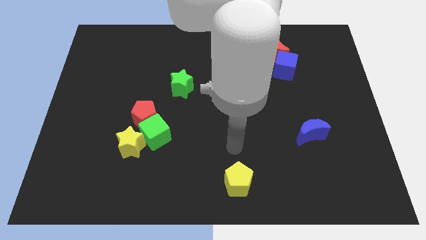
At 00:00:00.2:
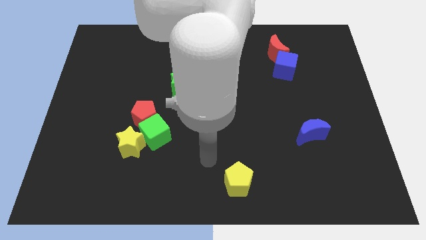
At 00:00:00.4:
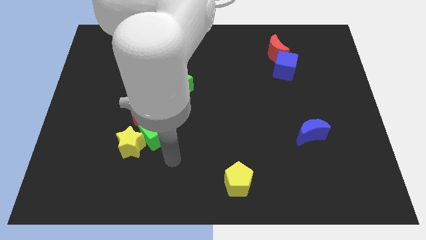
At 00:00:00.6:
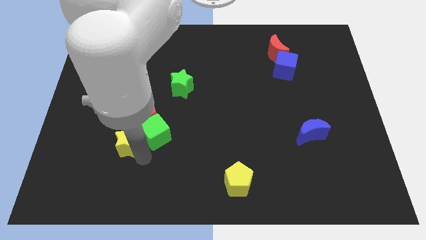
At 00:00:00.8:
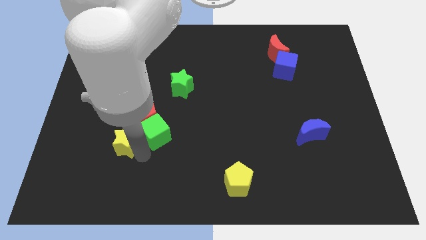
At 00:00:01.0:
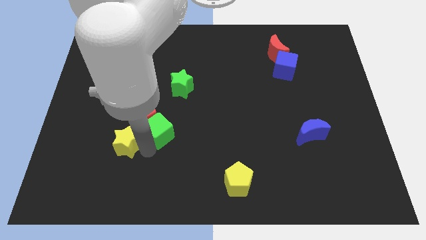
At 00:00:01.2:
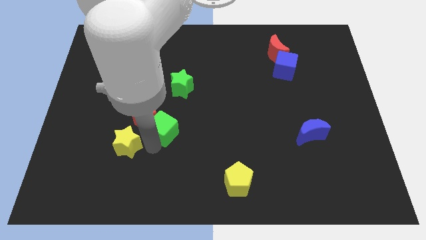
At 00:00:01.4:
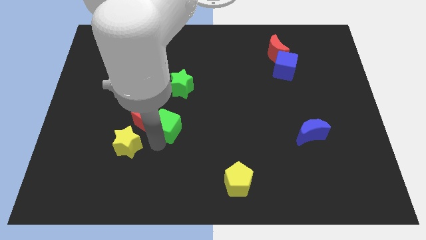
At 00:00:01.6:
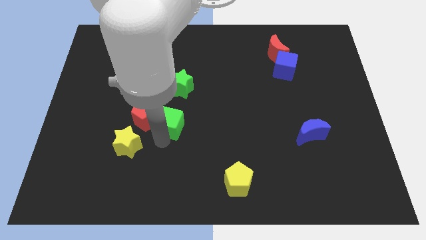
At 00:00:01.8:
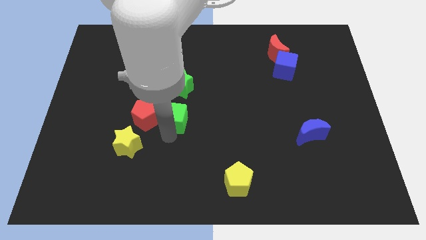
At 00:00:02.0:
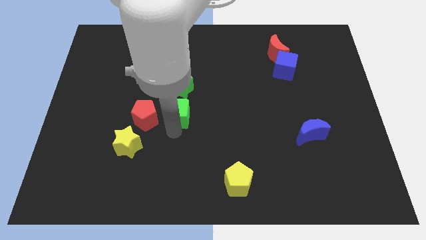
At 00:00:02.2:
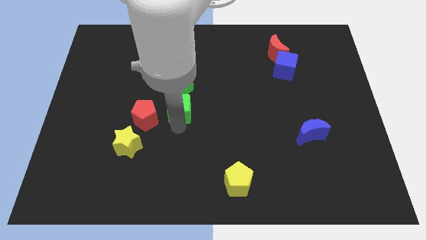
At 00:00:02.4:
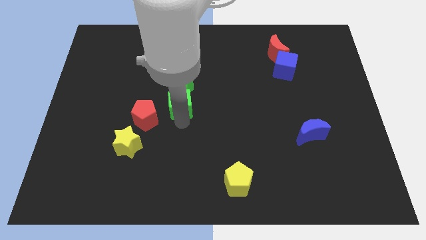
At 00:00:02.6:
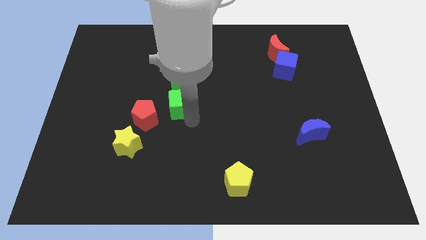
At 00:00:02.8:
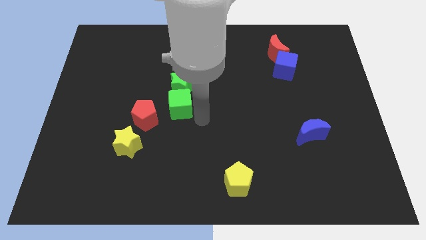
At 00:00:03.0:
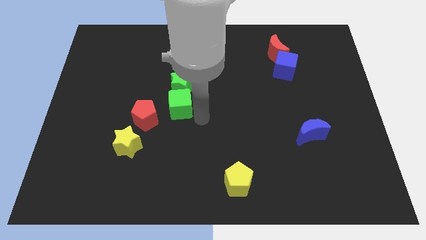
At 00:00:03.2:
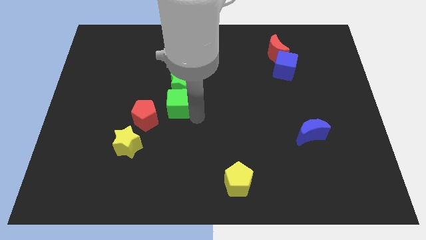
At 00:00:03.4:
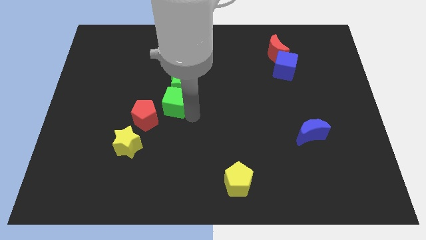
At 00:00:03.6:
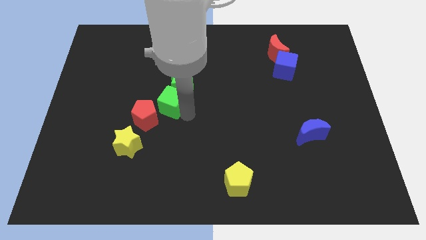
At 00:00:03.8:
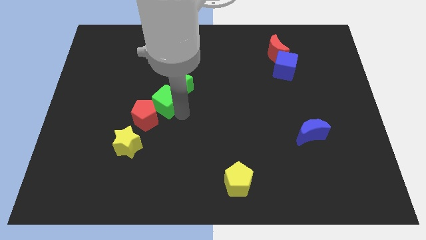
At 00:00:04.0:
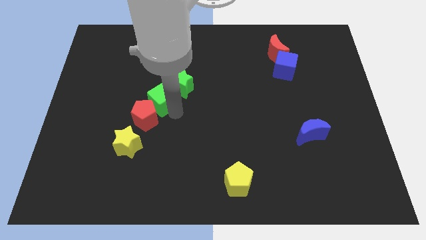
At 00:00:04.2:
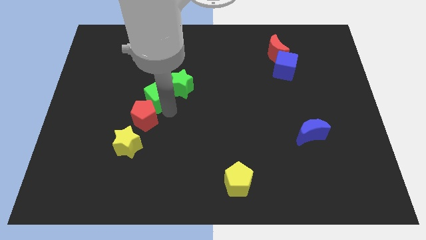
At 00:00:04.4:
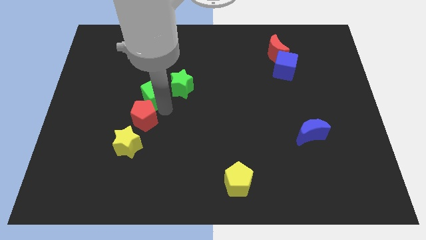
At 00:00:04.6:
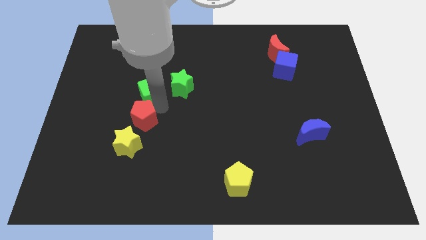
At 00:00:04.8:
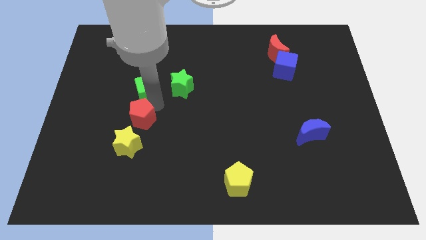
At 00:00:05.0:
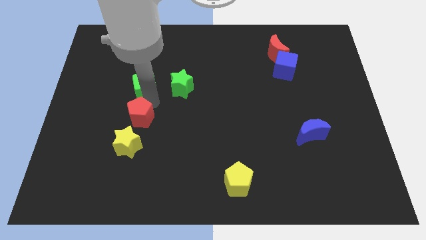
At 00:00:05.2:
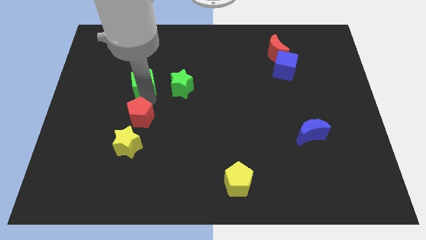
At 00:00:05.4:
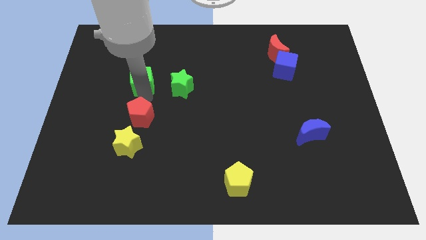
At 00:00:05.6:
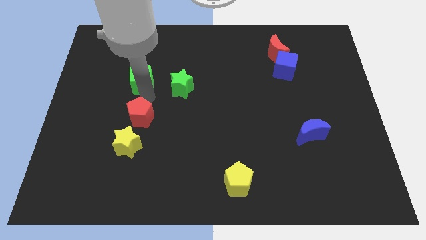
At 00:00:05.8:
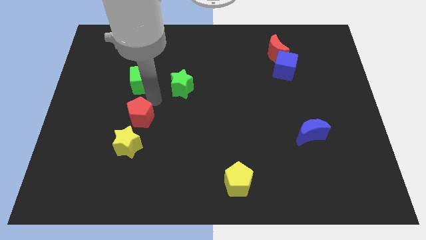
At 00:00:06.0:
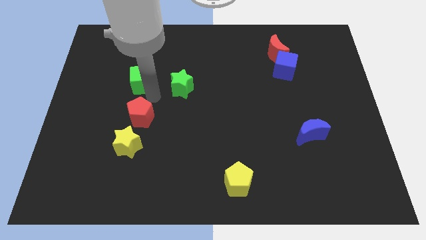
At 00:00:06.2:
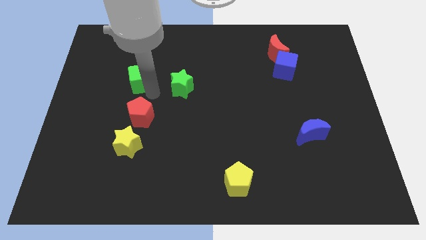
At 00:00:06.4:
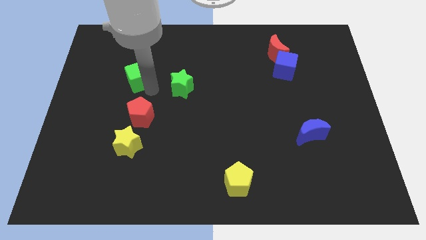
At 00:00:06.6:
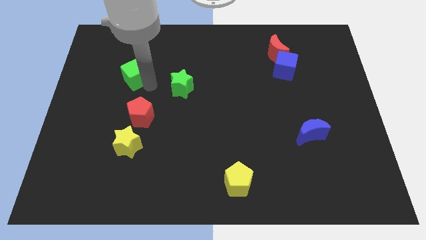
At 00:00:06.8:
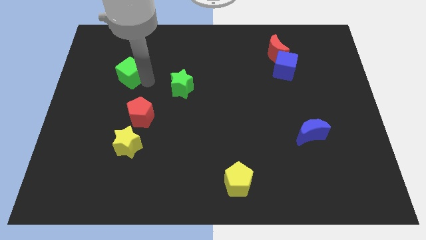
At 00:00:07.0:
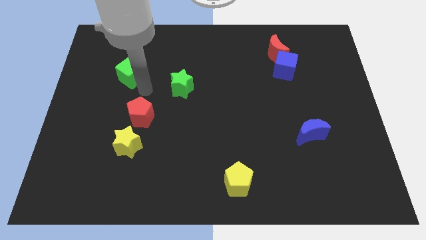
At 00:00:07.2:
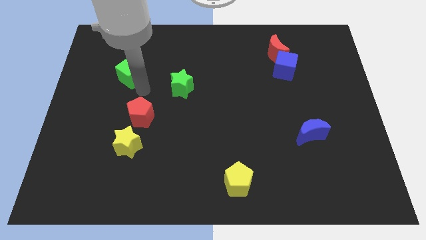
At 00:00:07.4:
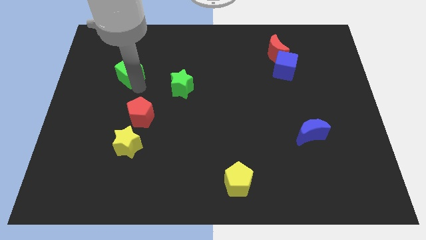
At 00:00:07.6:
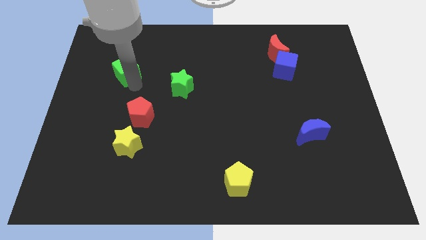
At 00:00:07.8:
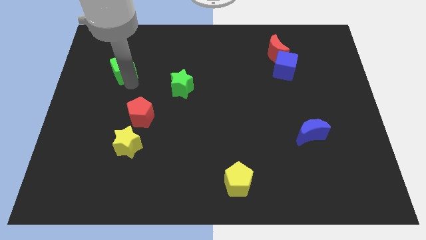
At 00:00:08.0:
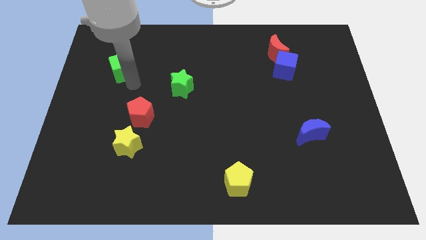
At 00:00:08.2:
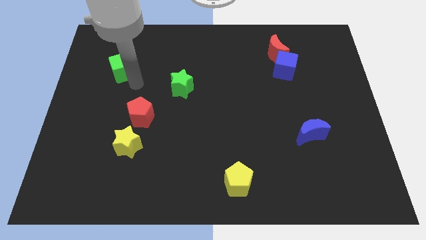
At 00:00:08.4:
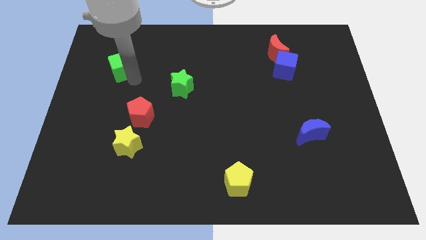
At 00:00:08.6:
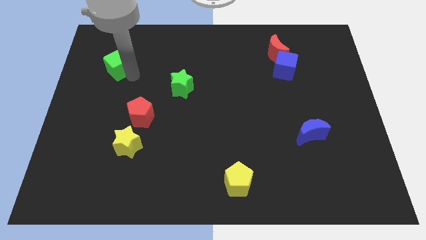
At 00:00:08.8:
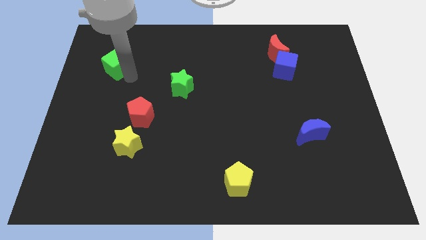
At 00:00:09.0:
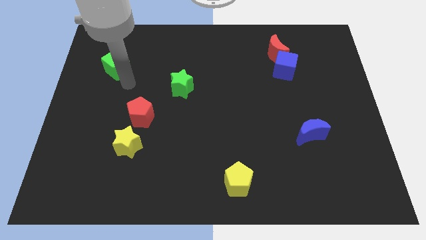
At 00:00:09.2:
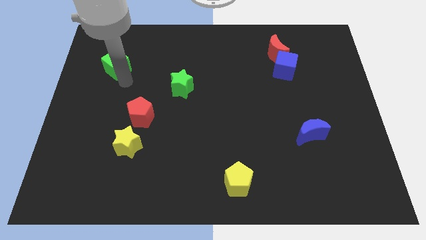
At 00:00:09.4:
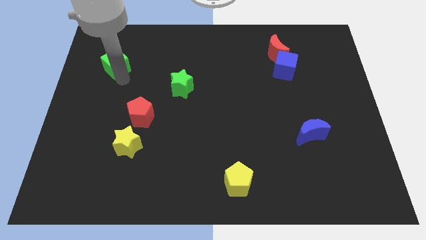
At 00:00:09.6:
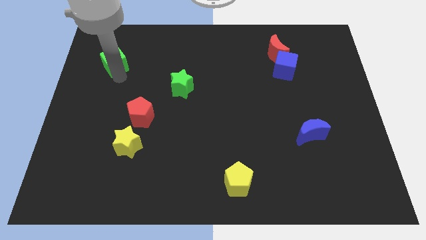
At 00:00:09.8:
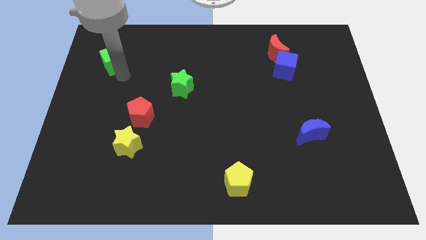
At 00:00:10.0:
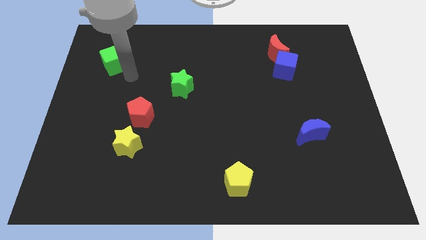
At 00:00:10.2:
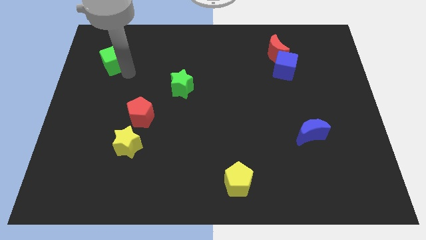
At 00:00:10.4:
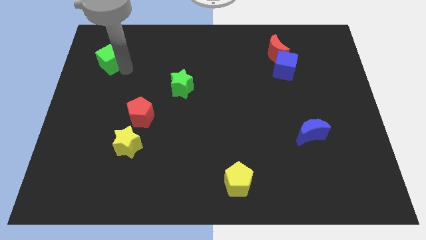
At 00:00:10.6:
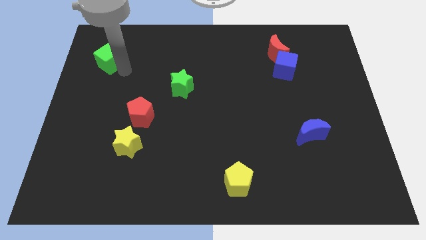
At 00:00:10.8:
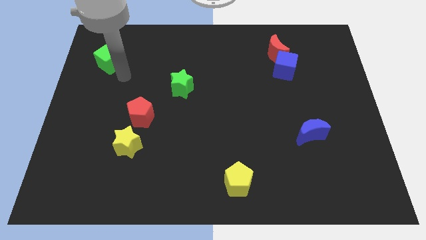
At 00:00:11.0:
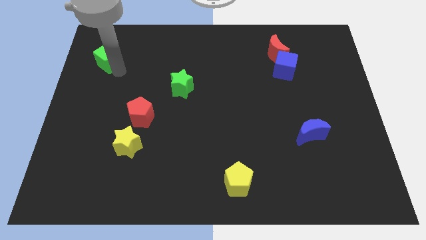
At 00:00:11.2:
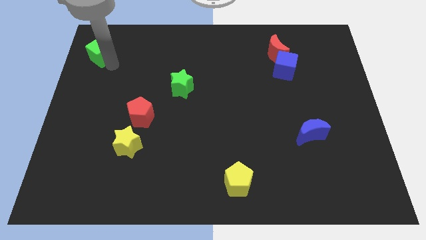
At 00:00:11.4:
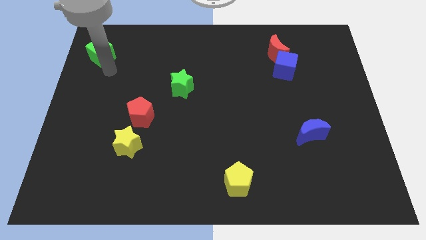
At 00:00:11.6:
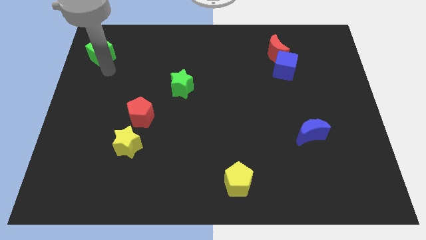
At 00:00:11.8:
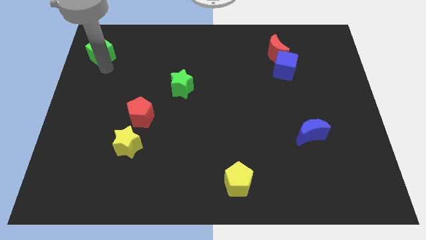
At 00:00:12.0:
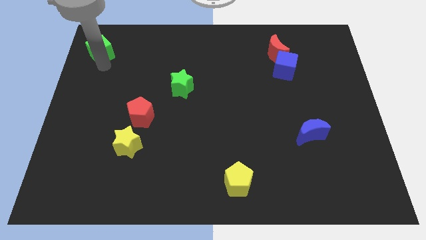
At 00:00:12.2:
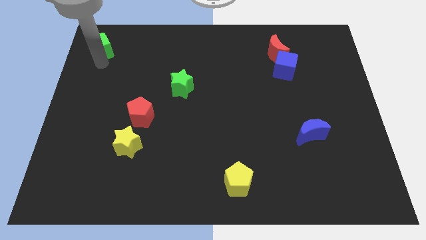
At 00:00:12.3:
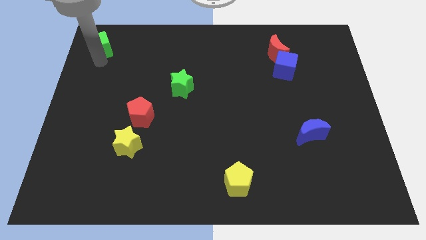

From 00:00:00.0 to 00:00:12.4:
put the green cube to the top left corner

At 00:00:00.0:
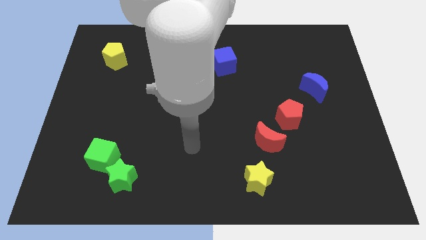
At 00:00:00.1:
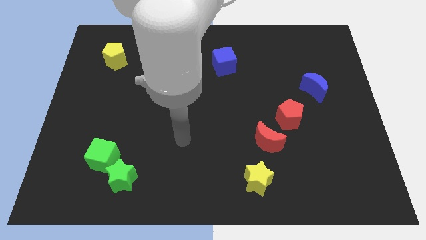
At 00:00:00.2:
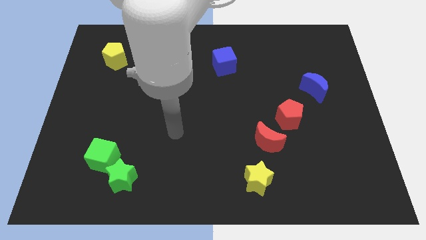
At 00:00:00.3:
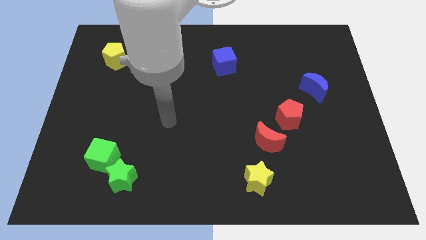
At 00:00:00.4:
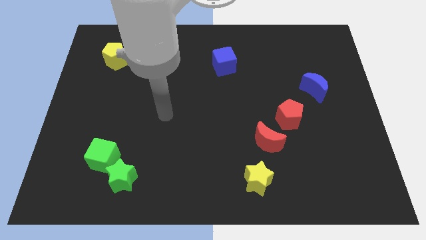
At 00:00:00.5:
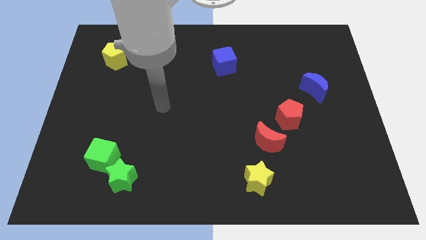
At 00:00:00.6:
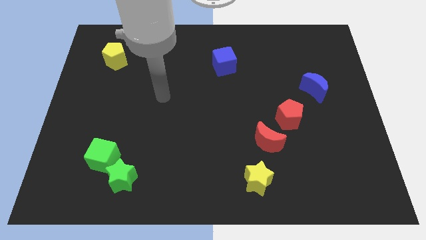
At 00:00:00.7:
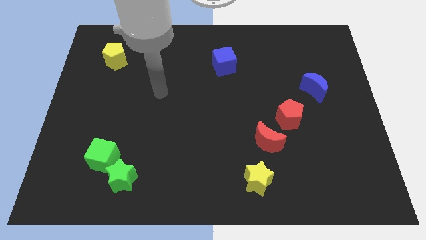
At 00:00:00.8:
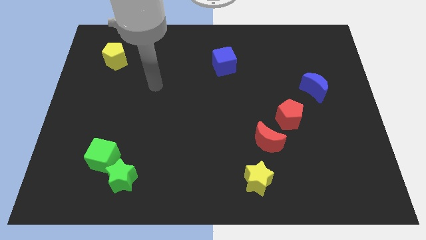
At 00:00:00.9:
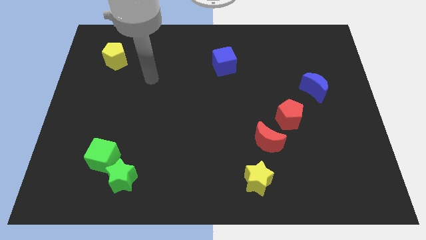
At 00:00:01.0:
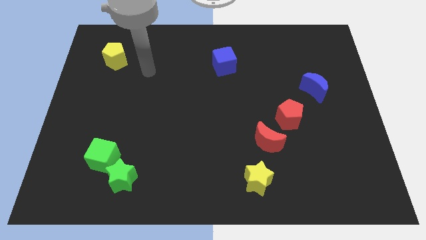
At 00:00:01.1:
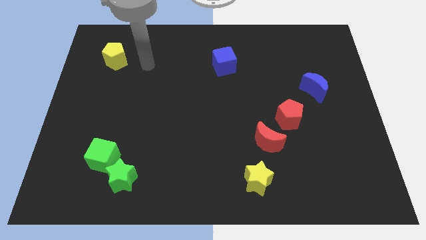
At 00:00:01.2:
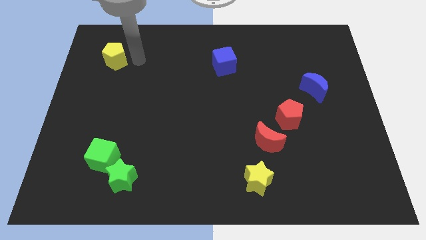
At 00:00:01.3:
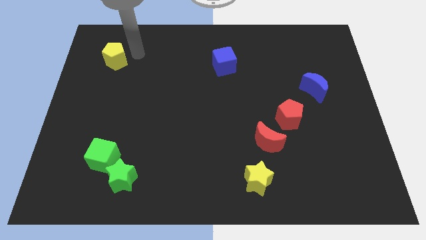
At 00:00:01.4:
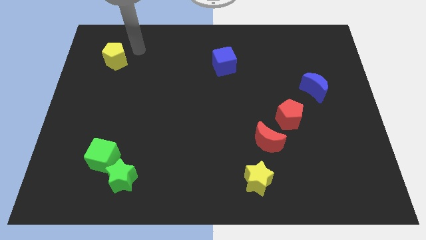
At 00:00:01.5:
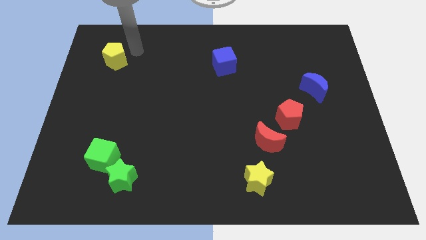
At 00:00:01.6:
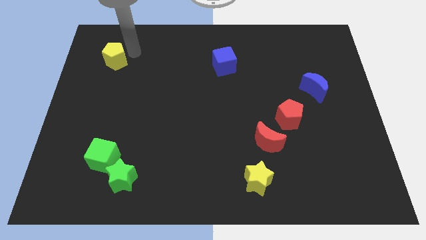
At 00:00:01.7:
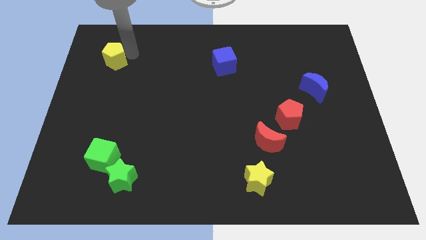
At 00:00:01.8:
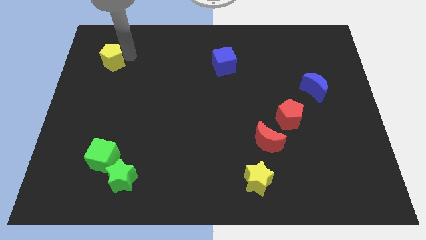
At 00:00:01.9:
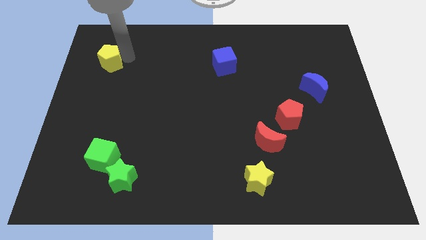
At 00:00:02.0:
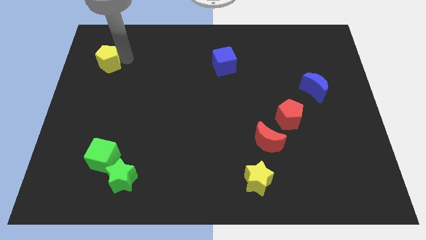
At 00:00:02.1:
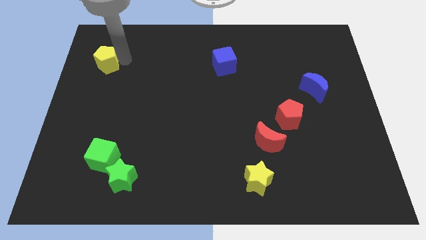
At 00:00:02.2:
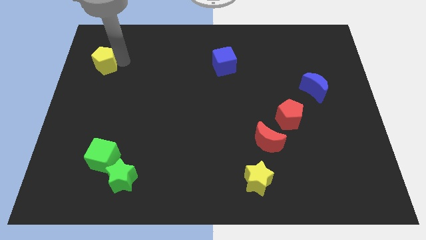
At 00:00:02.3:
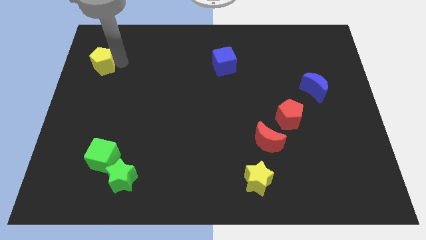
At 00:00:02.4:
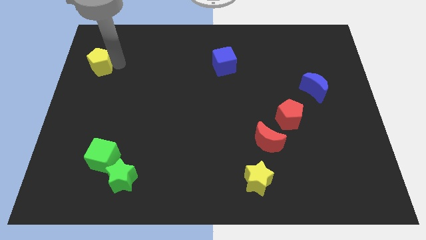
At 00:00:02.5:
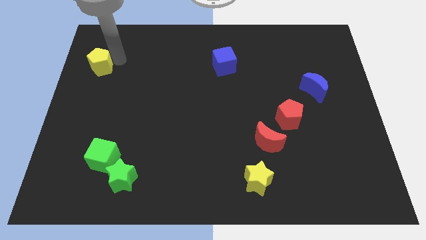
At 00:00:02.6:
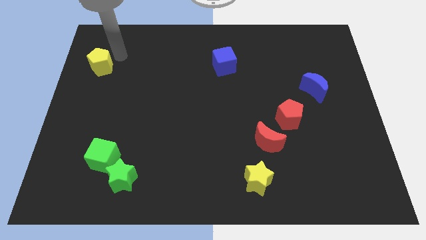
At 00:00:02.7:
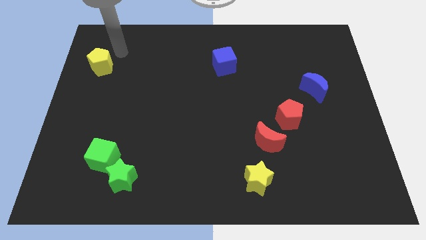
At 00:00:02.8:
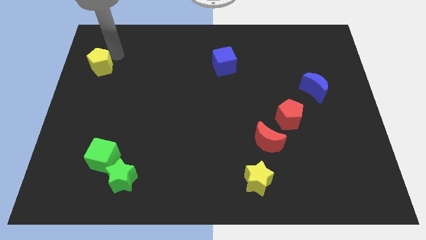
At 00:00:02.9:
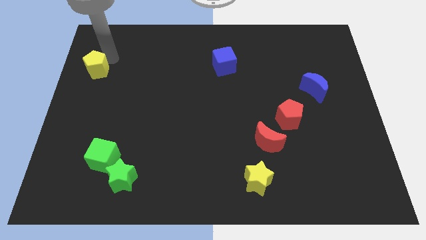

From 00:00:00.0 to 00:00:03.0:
move the yellow pentagon to the left side
